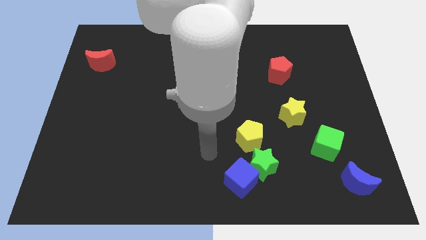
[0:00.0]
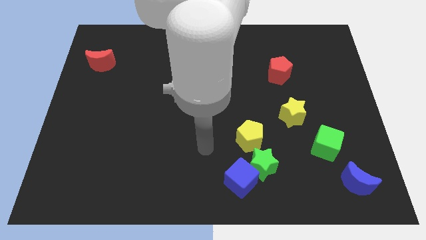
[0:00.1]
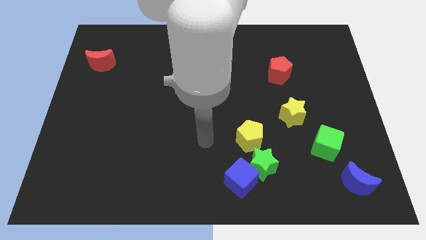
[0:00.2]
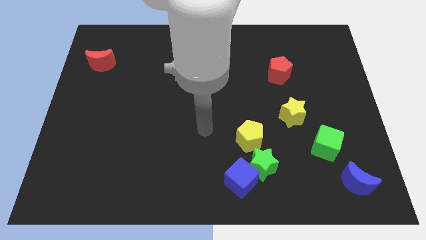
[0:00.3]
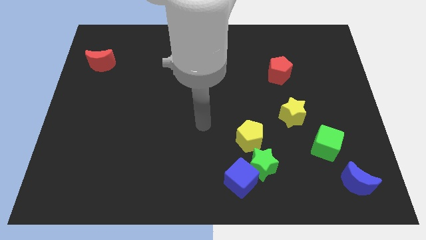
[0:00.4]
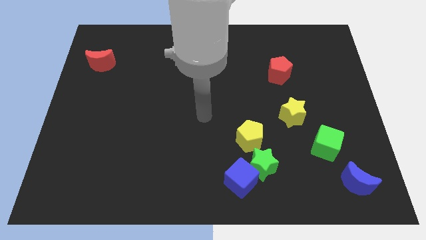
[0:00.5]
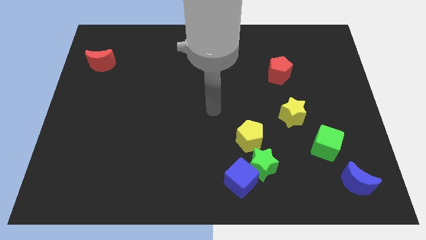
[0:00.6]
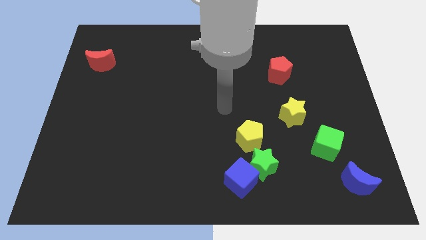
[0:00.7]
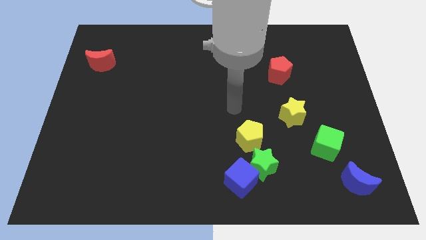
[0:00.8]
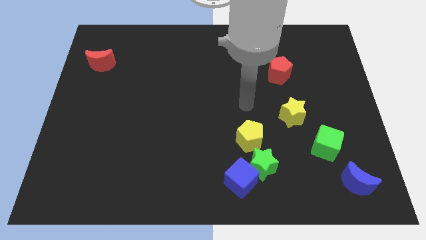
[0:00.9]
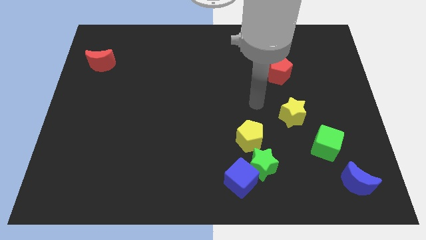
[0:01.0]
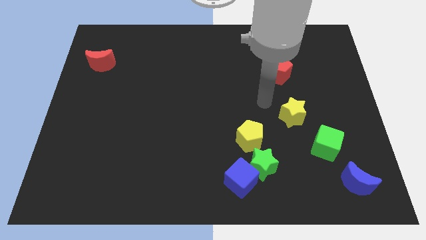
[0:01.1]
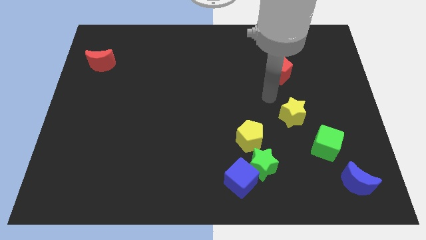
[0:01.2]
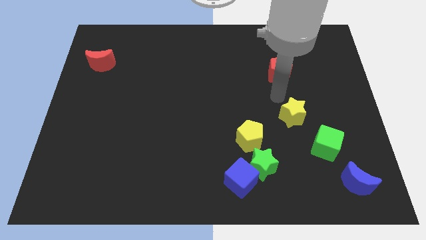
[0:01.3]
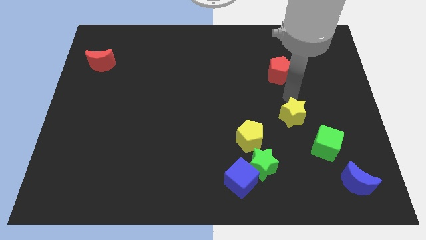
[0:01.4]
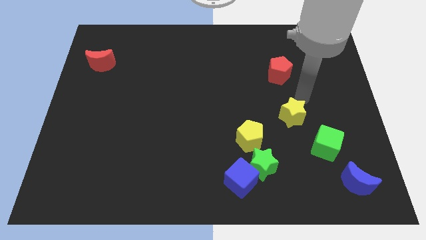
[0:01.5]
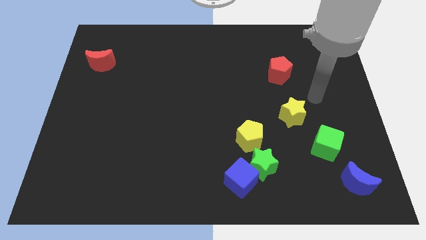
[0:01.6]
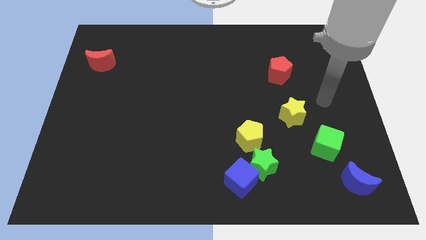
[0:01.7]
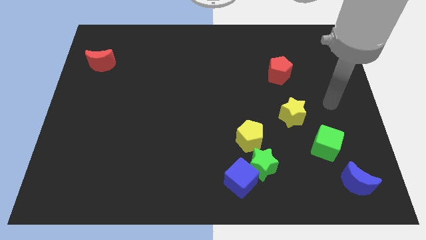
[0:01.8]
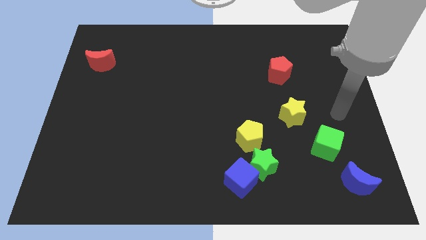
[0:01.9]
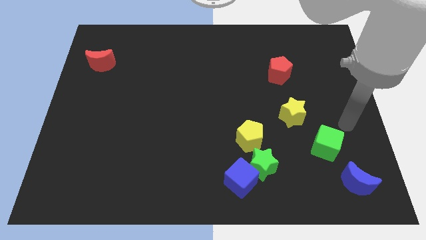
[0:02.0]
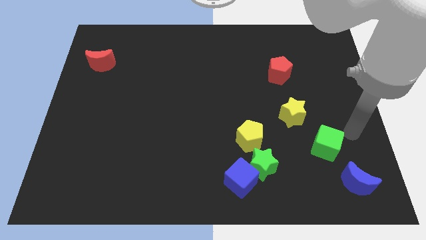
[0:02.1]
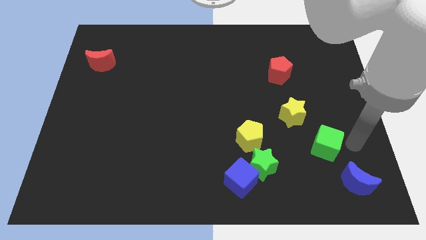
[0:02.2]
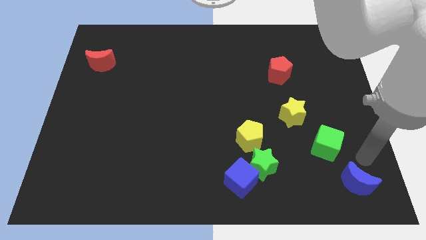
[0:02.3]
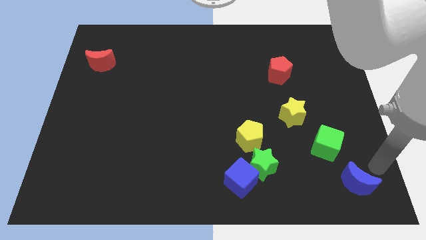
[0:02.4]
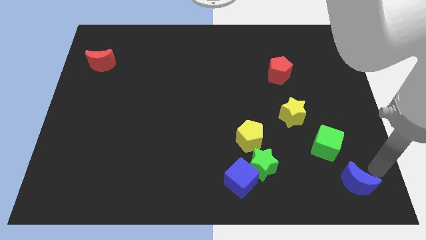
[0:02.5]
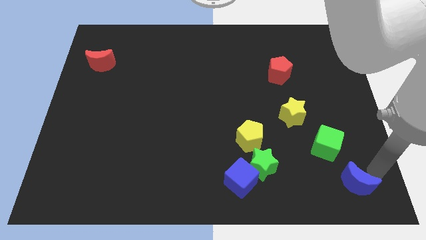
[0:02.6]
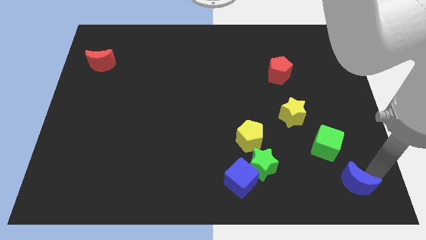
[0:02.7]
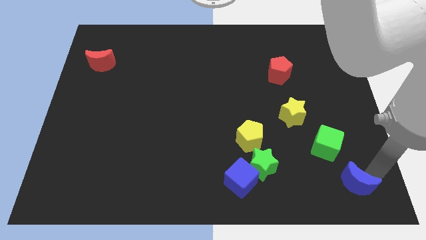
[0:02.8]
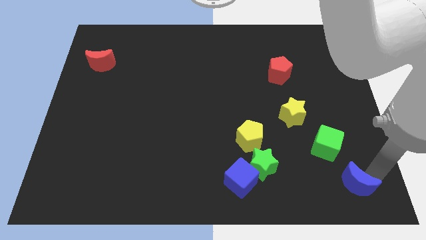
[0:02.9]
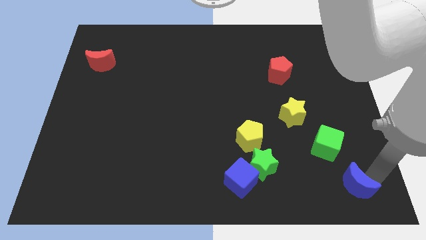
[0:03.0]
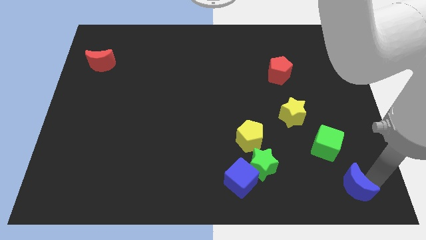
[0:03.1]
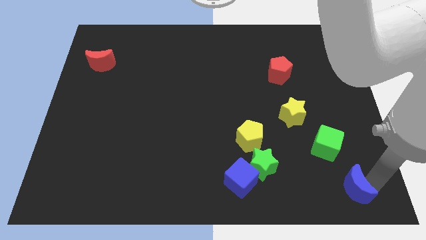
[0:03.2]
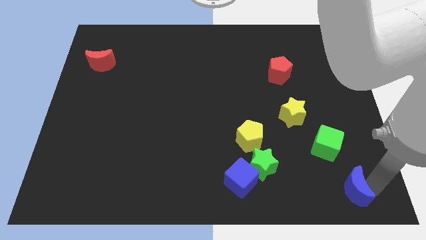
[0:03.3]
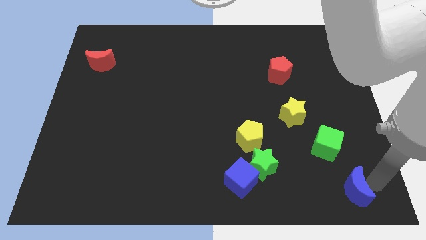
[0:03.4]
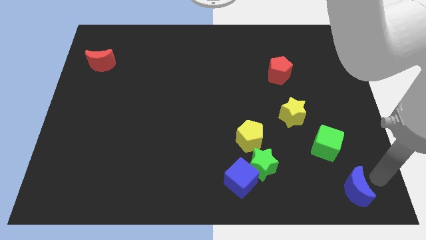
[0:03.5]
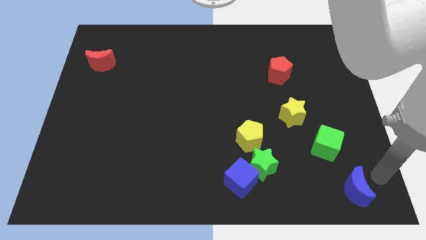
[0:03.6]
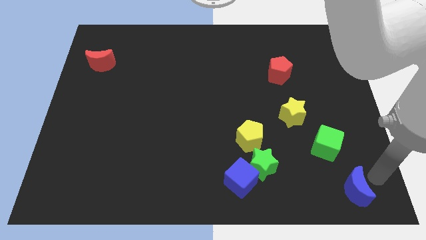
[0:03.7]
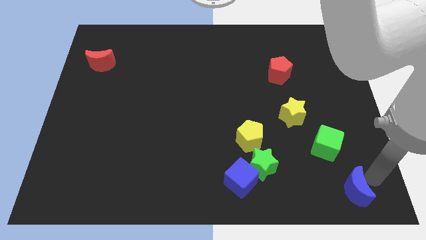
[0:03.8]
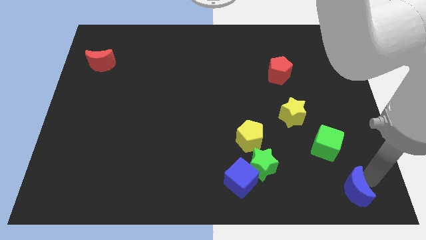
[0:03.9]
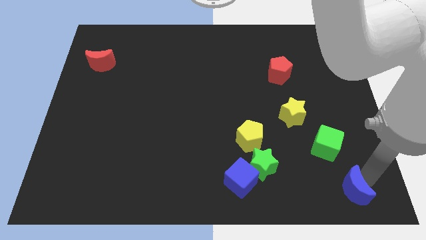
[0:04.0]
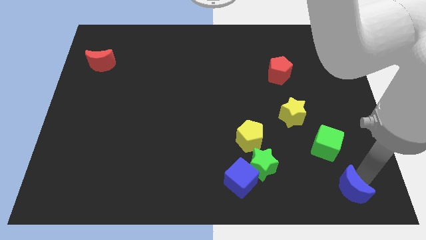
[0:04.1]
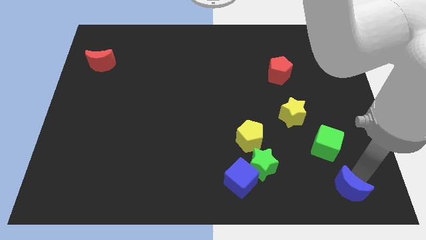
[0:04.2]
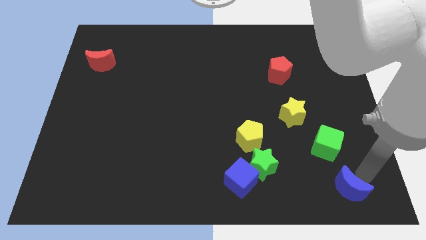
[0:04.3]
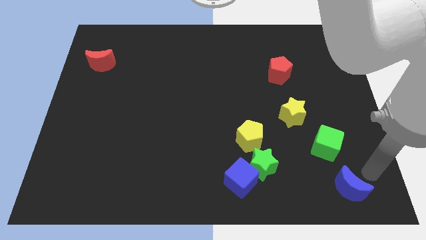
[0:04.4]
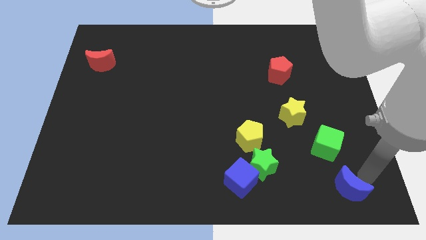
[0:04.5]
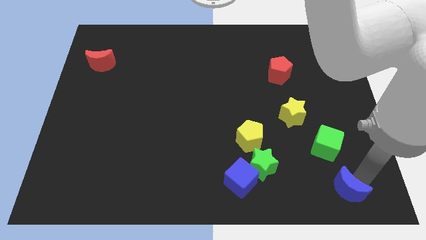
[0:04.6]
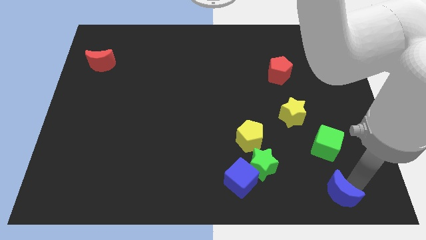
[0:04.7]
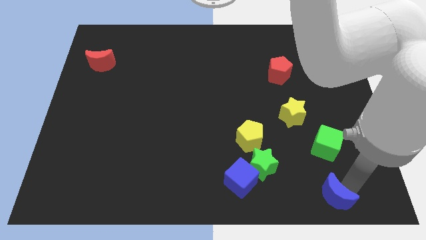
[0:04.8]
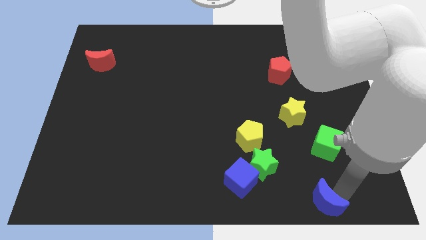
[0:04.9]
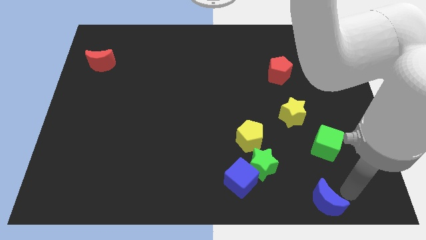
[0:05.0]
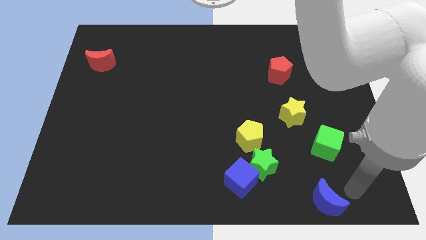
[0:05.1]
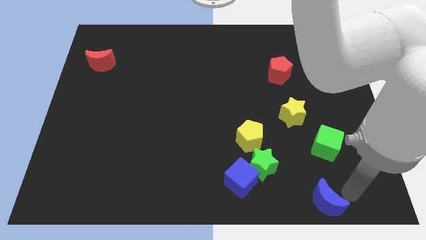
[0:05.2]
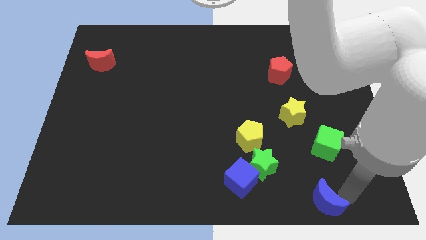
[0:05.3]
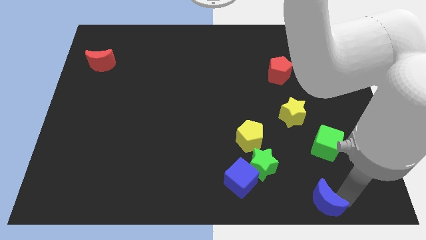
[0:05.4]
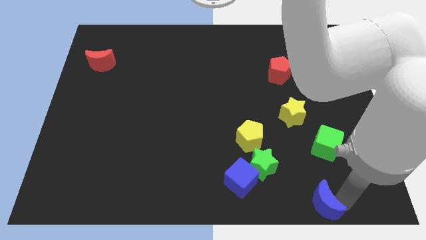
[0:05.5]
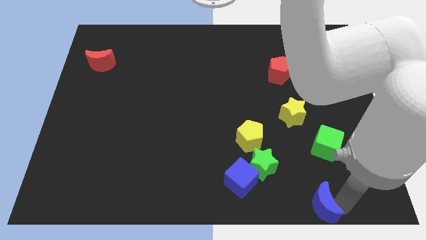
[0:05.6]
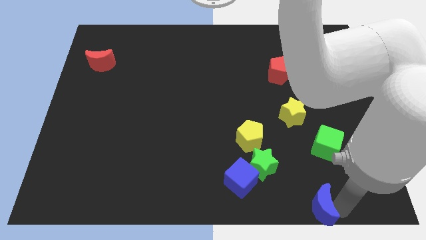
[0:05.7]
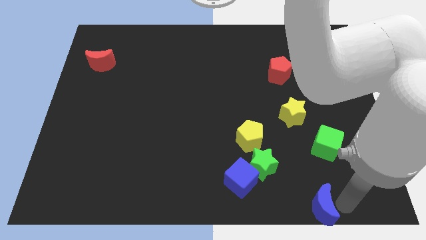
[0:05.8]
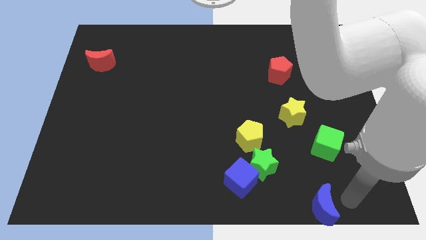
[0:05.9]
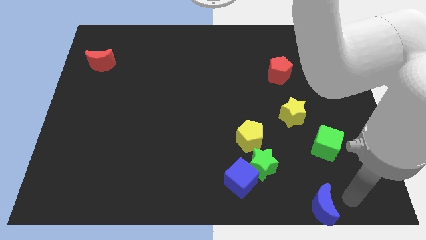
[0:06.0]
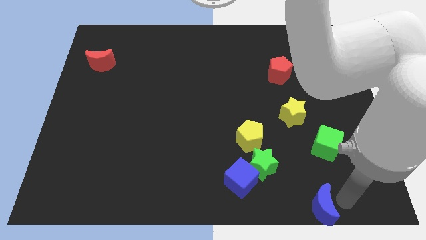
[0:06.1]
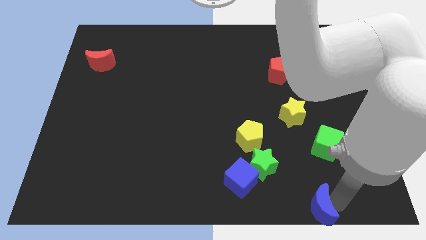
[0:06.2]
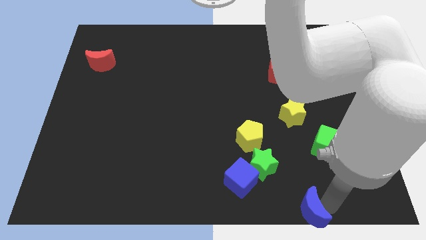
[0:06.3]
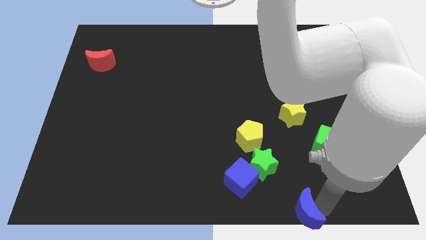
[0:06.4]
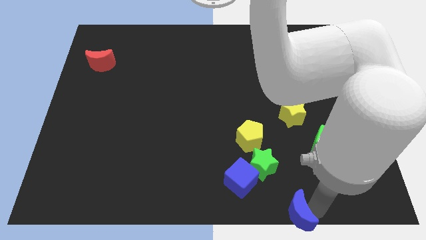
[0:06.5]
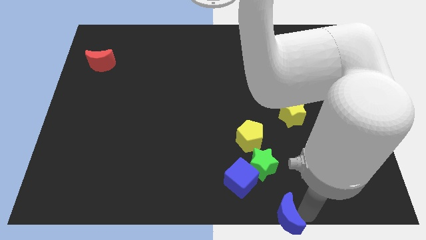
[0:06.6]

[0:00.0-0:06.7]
push the blue moon to the bottom side

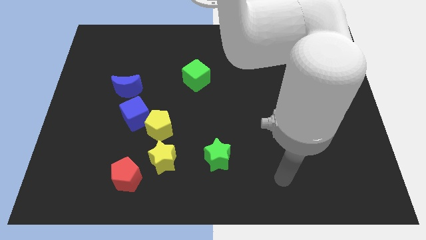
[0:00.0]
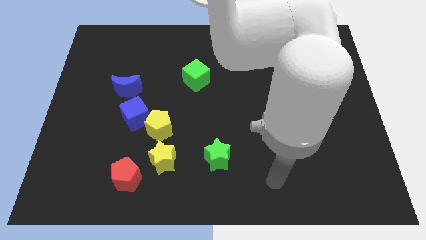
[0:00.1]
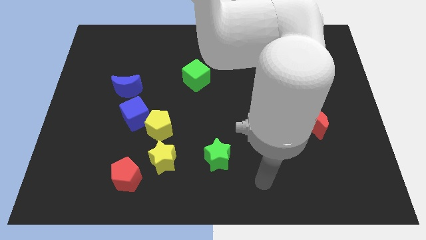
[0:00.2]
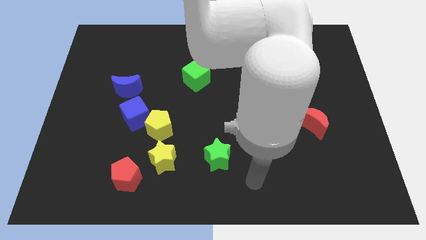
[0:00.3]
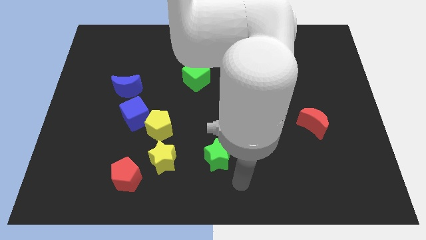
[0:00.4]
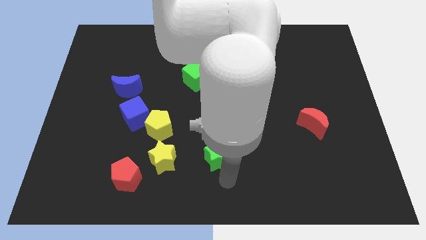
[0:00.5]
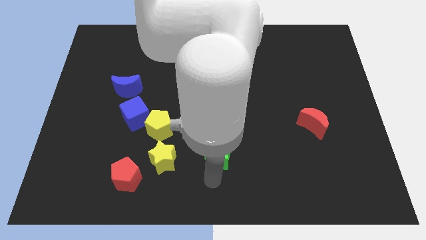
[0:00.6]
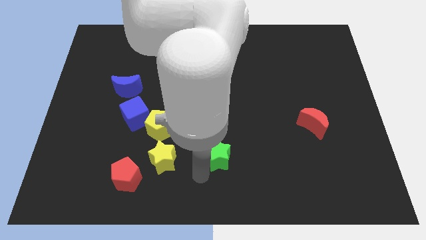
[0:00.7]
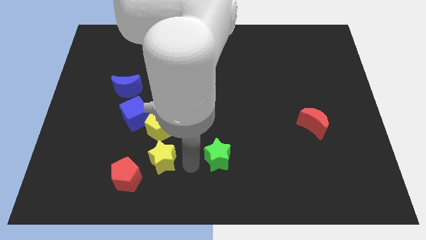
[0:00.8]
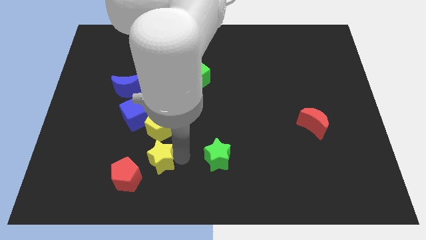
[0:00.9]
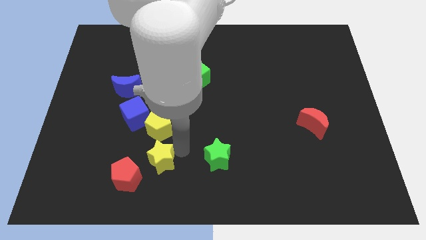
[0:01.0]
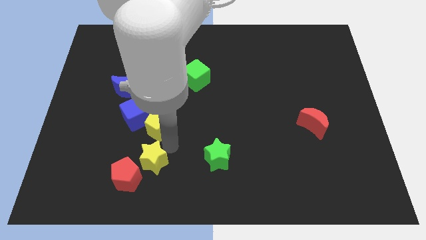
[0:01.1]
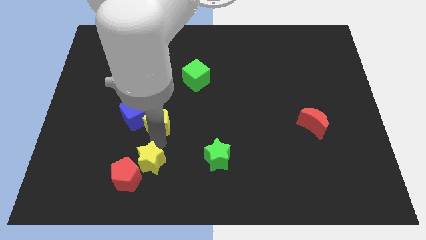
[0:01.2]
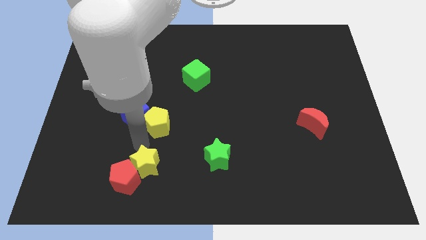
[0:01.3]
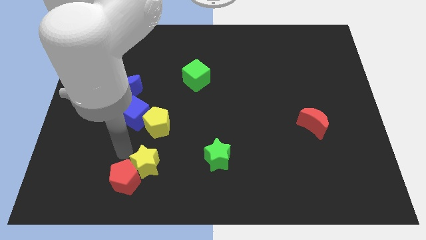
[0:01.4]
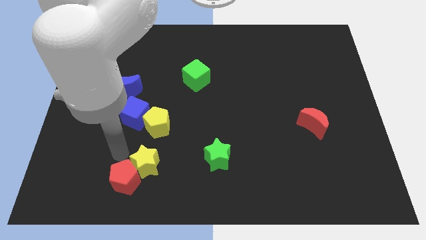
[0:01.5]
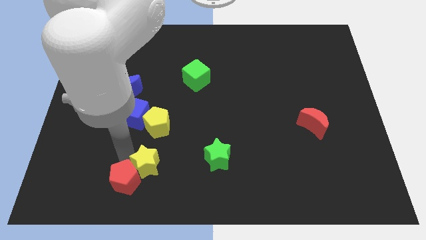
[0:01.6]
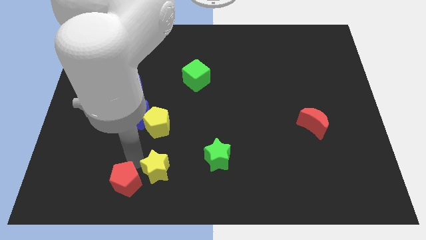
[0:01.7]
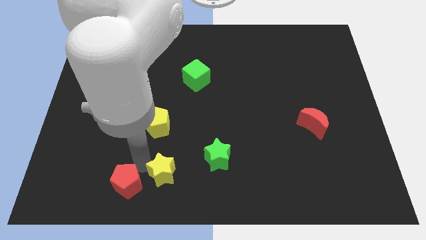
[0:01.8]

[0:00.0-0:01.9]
push the yellow star to the bottom side
